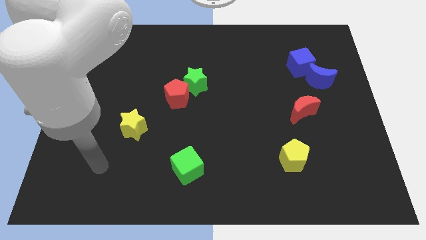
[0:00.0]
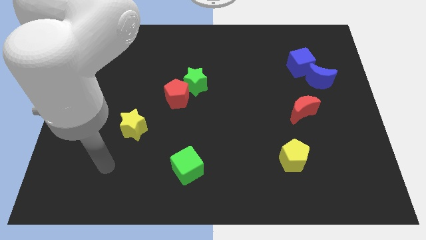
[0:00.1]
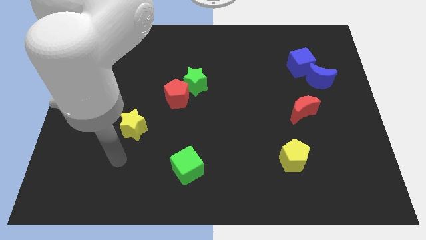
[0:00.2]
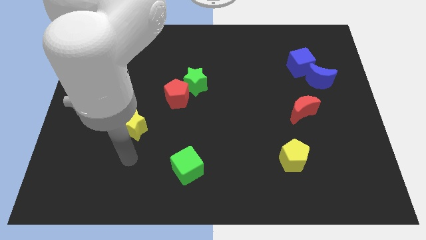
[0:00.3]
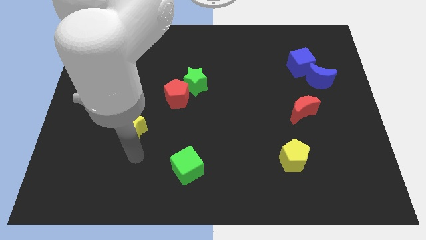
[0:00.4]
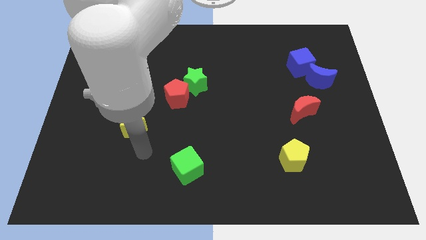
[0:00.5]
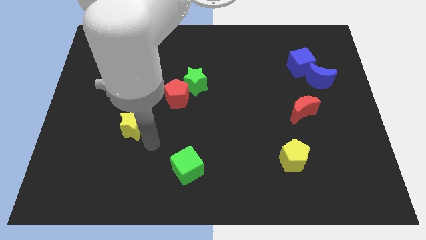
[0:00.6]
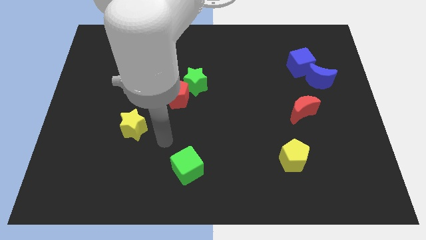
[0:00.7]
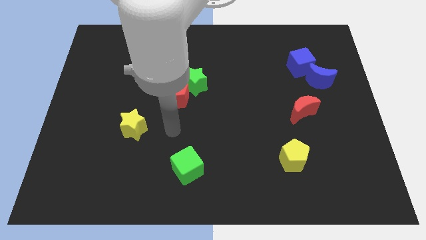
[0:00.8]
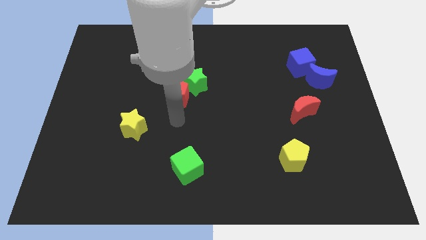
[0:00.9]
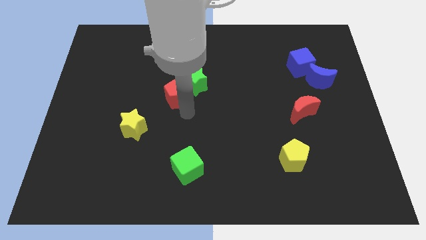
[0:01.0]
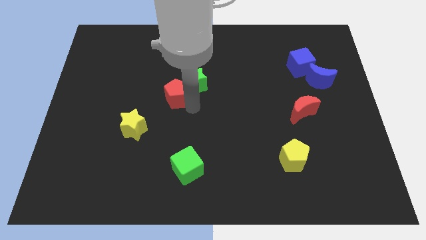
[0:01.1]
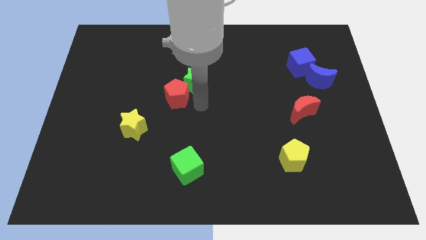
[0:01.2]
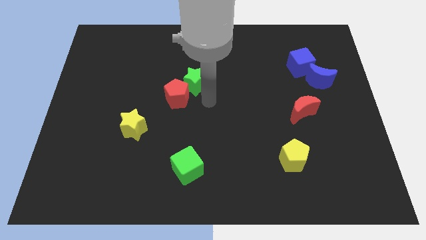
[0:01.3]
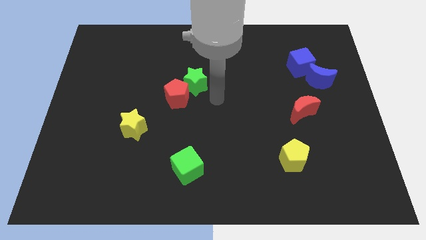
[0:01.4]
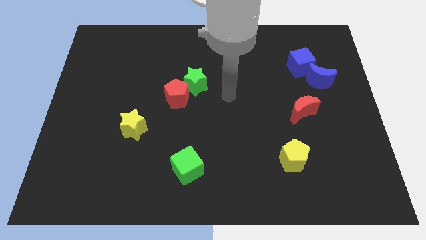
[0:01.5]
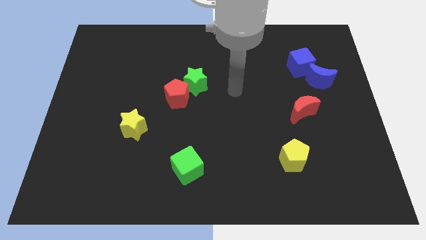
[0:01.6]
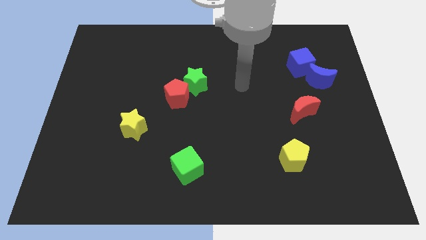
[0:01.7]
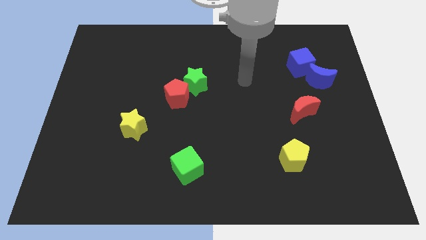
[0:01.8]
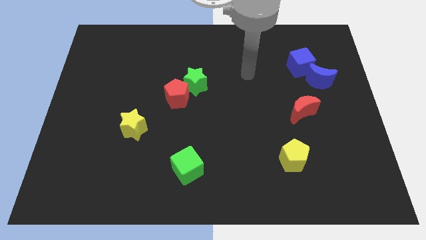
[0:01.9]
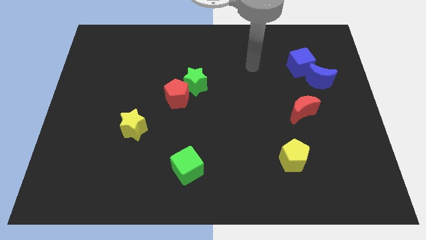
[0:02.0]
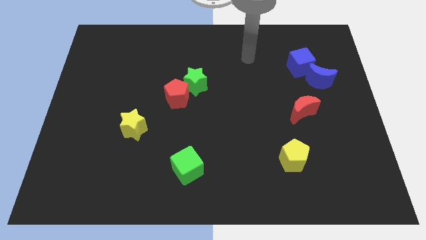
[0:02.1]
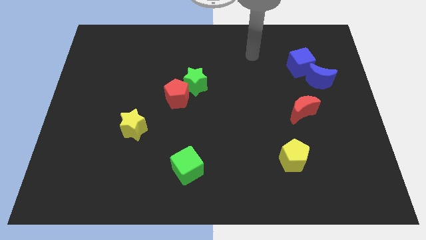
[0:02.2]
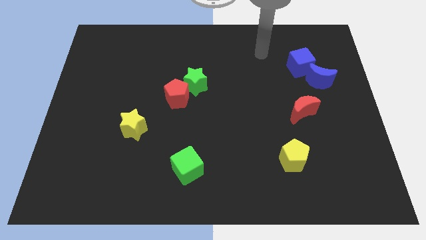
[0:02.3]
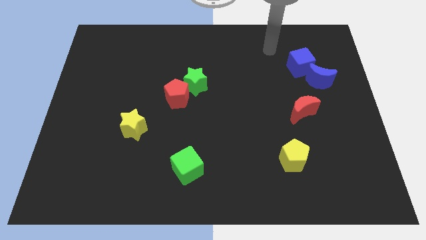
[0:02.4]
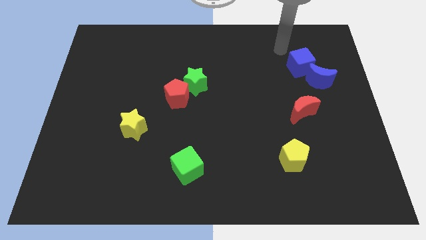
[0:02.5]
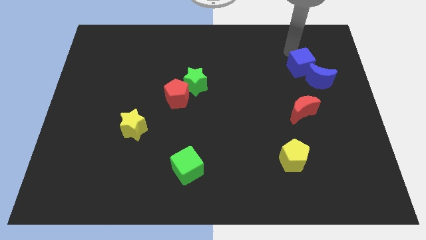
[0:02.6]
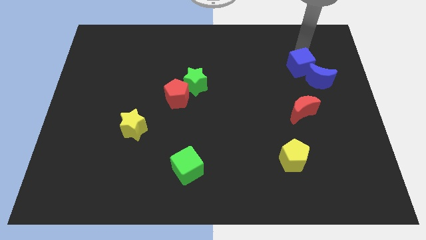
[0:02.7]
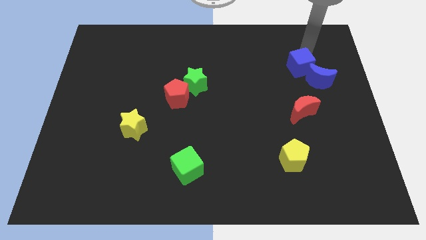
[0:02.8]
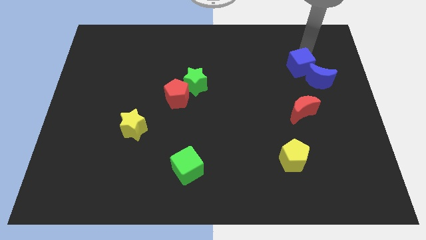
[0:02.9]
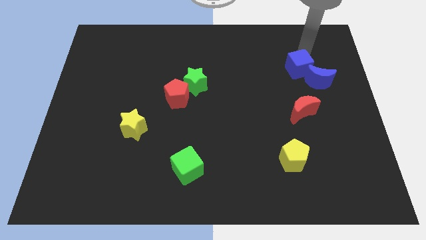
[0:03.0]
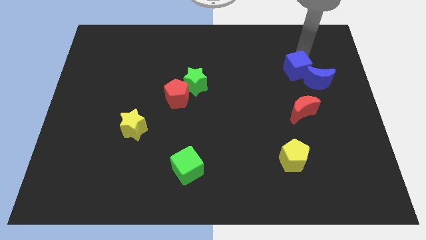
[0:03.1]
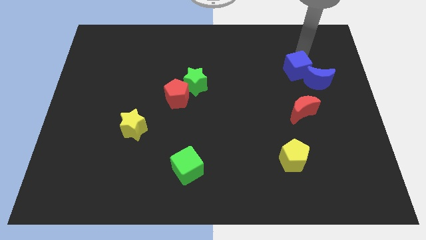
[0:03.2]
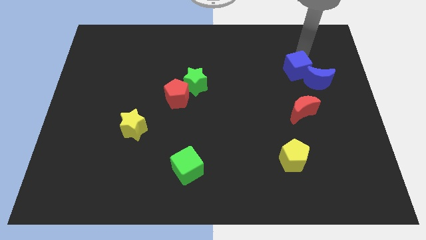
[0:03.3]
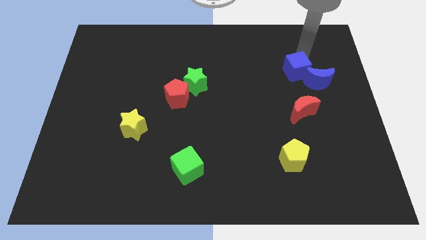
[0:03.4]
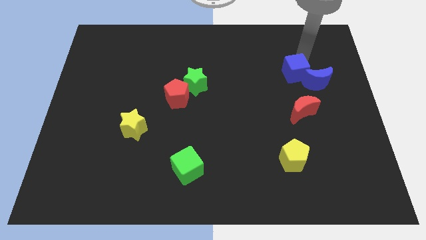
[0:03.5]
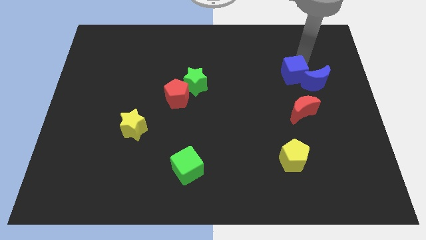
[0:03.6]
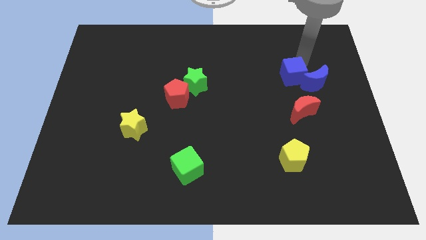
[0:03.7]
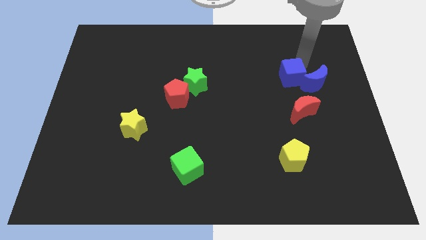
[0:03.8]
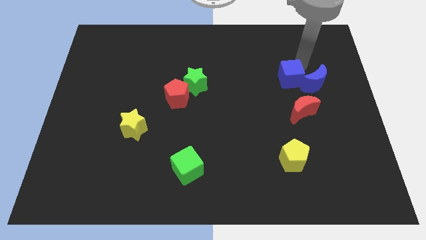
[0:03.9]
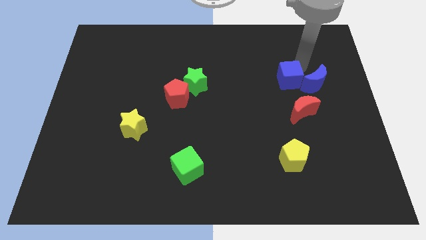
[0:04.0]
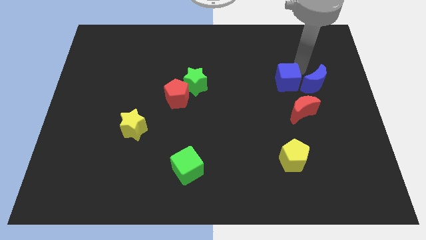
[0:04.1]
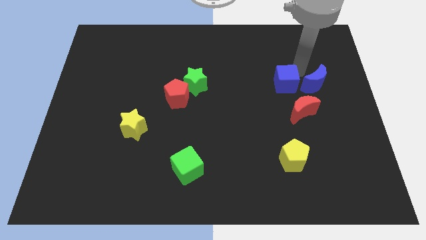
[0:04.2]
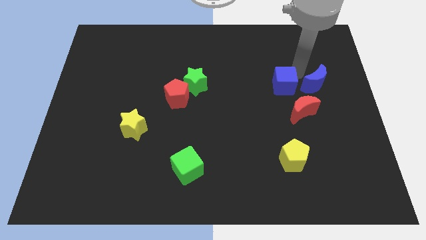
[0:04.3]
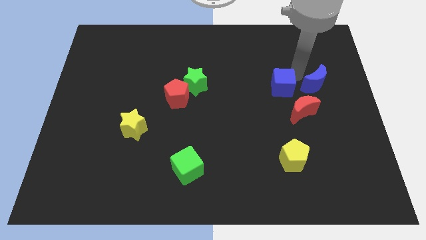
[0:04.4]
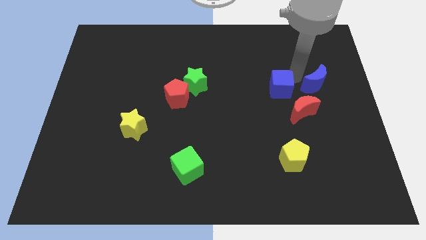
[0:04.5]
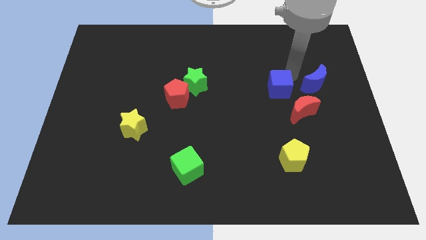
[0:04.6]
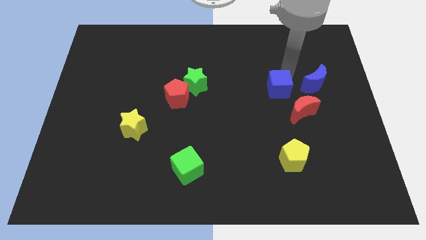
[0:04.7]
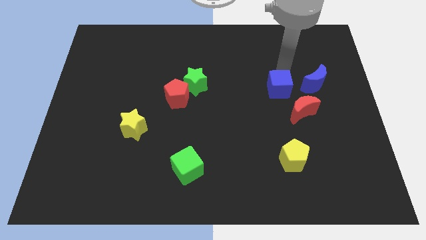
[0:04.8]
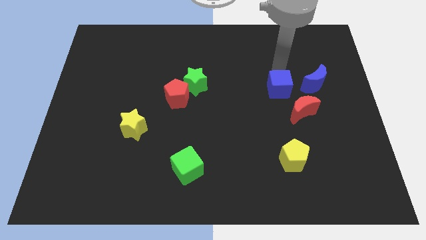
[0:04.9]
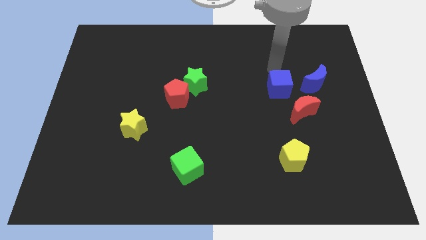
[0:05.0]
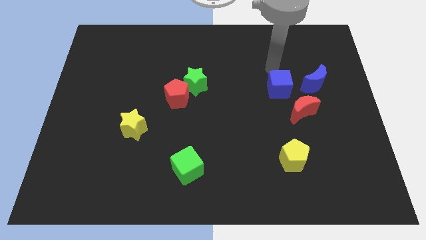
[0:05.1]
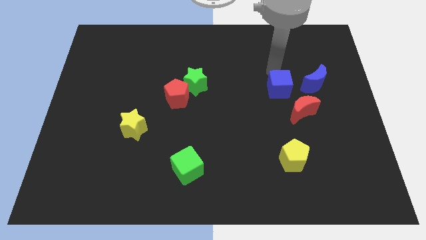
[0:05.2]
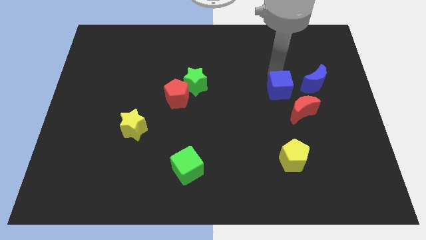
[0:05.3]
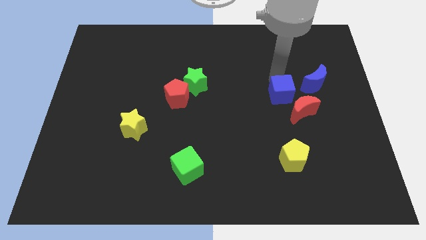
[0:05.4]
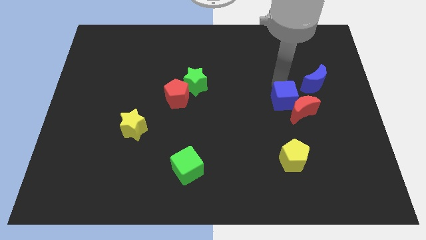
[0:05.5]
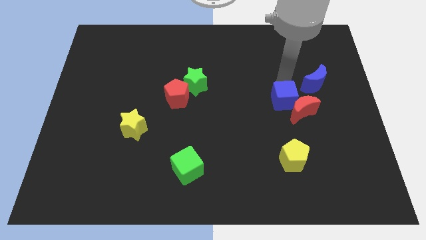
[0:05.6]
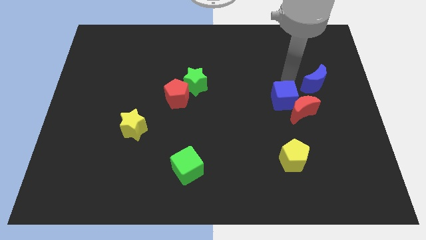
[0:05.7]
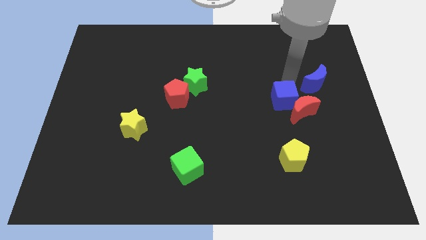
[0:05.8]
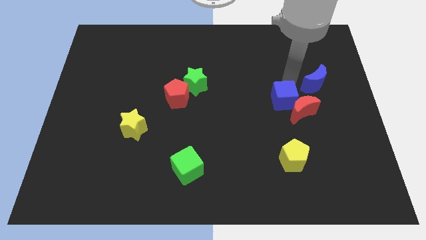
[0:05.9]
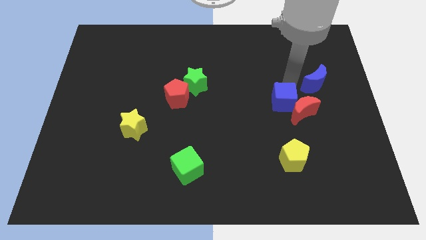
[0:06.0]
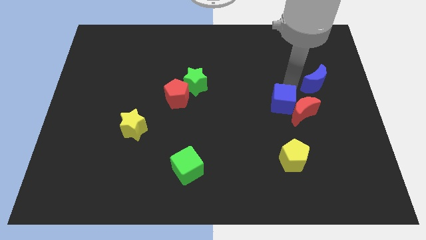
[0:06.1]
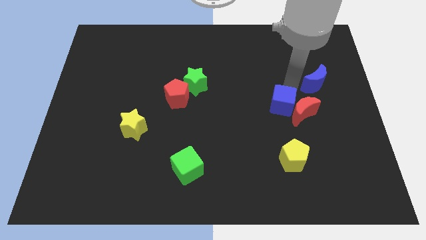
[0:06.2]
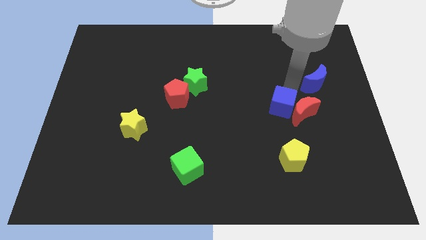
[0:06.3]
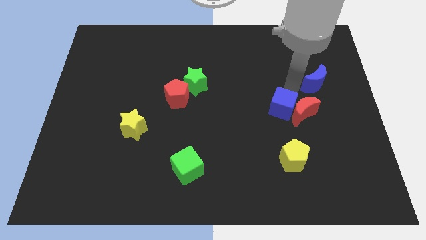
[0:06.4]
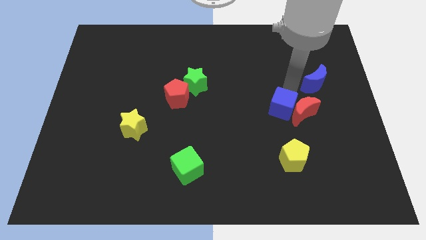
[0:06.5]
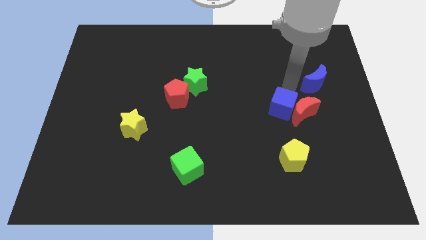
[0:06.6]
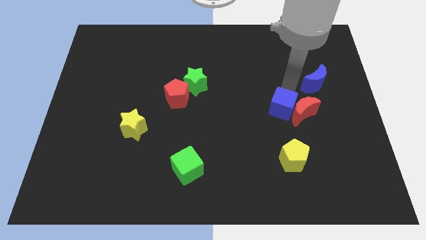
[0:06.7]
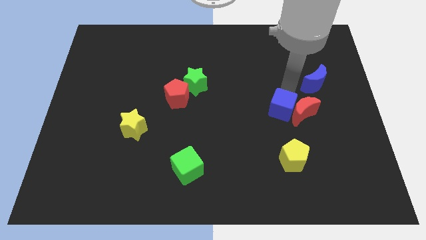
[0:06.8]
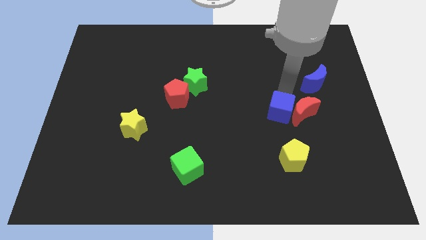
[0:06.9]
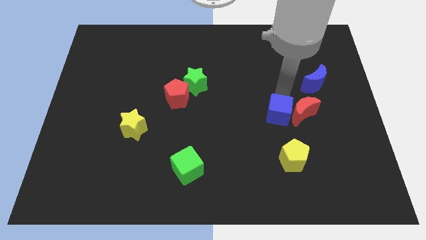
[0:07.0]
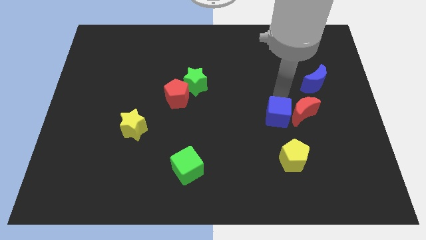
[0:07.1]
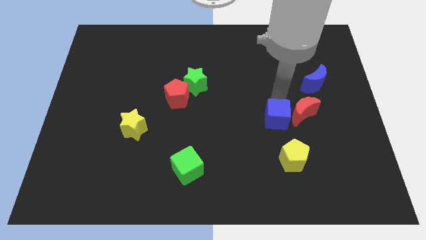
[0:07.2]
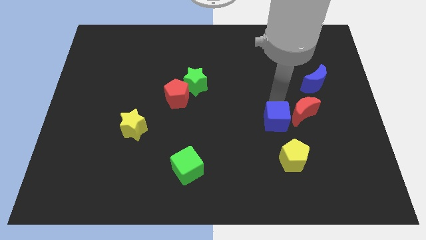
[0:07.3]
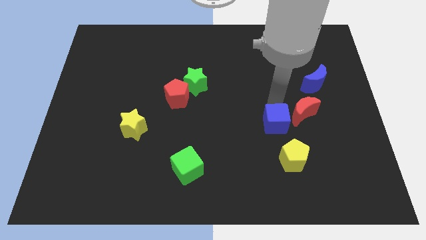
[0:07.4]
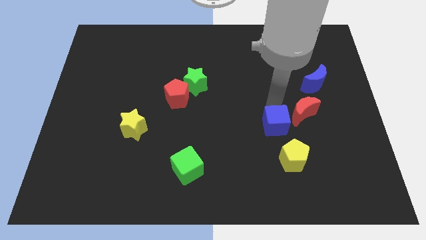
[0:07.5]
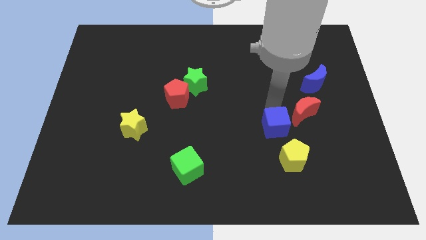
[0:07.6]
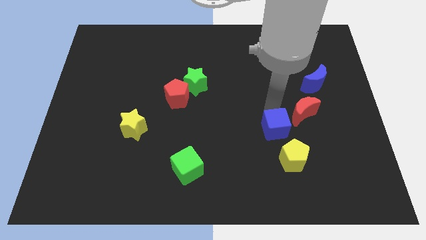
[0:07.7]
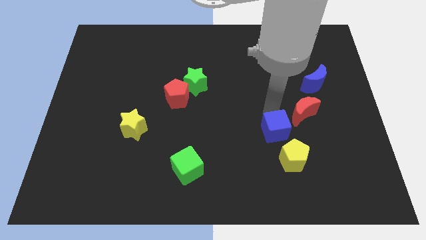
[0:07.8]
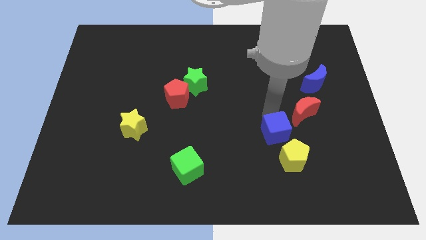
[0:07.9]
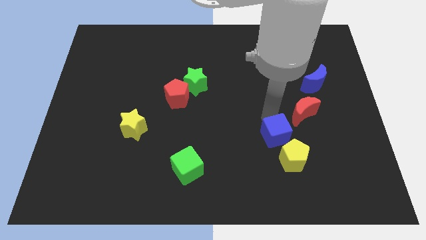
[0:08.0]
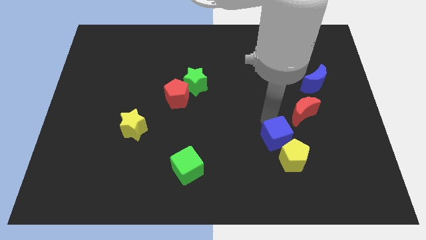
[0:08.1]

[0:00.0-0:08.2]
slide the blue cube next to the yellow pentagon
